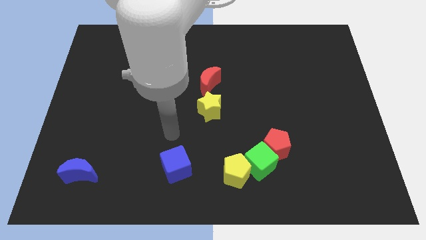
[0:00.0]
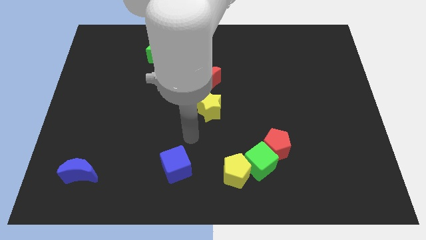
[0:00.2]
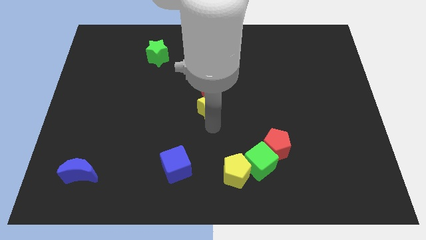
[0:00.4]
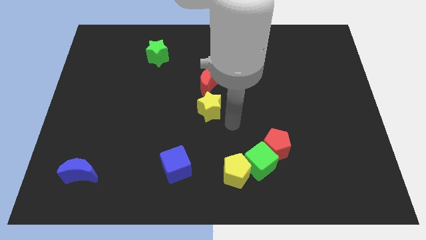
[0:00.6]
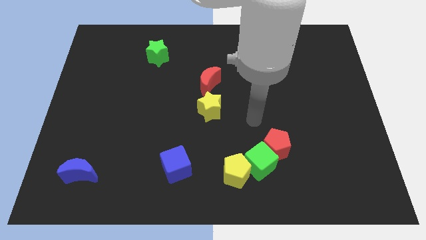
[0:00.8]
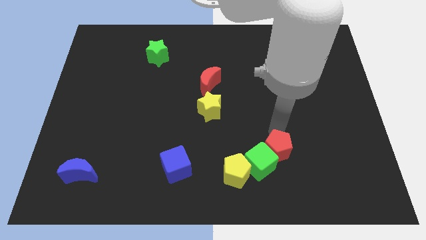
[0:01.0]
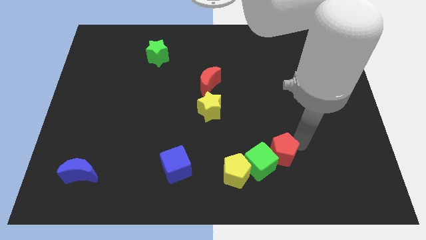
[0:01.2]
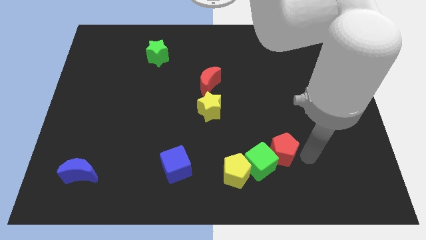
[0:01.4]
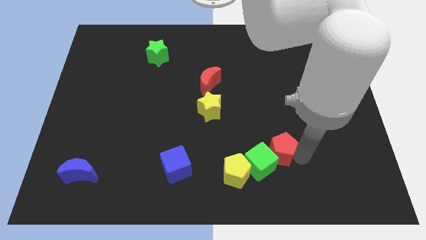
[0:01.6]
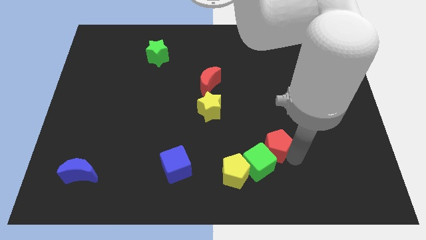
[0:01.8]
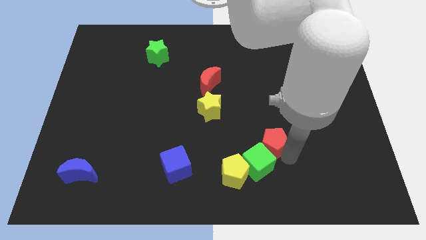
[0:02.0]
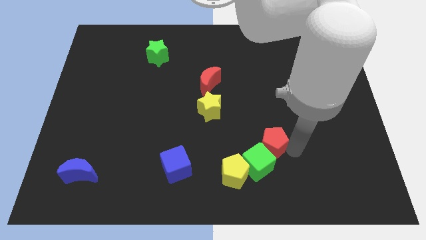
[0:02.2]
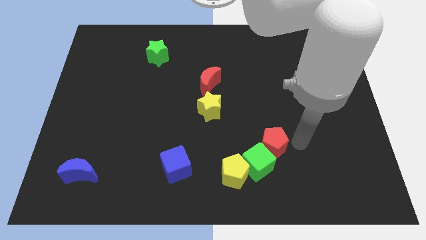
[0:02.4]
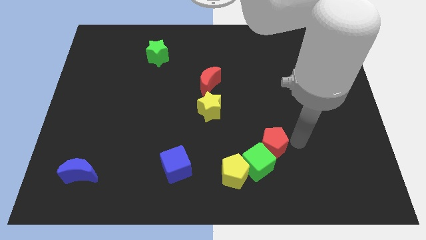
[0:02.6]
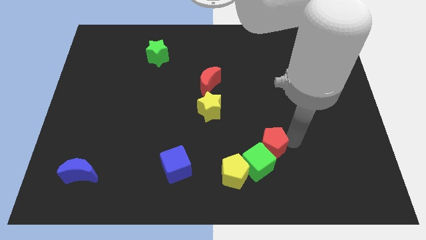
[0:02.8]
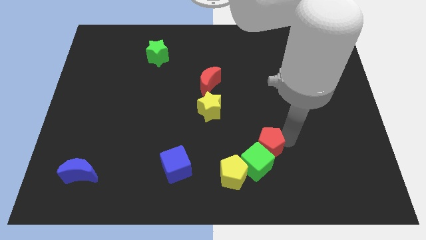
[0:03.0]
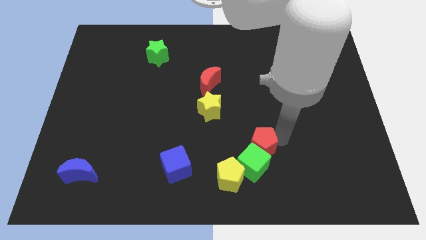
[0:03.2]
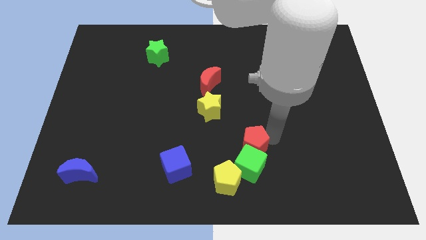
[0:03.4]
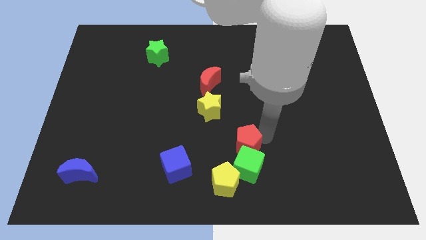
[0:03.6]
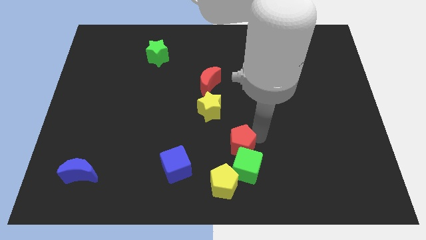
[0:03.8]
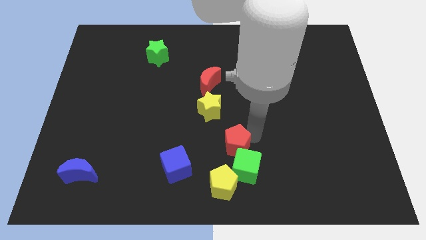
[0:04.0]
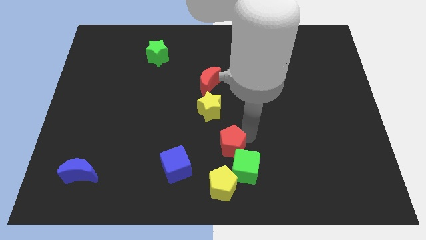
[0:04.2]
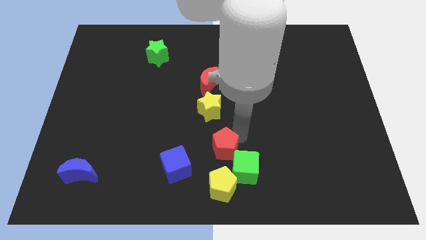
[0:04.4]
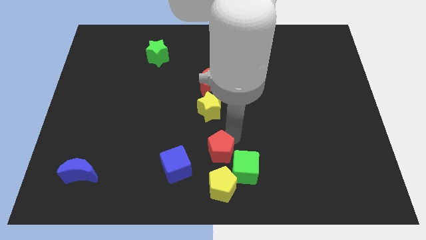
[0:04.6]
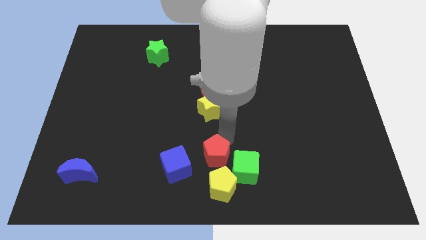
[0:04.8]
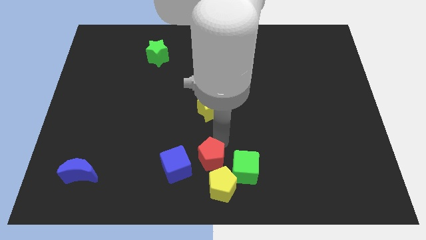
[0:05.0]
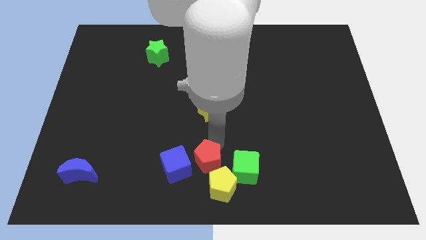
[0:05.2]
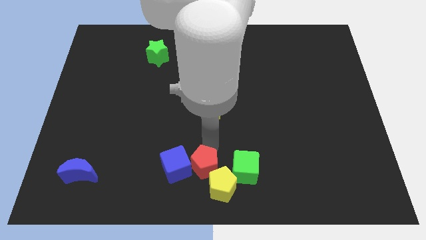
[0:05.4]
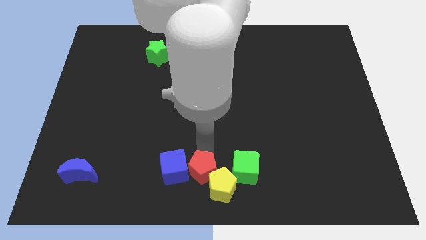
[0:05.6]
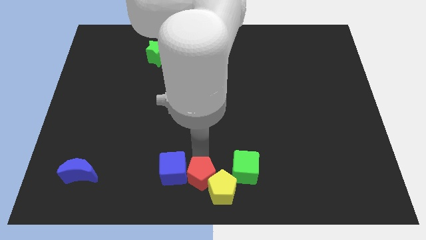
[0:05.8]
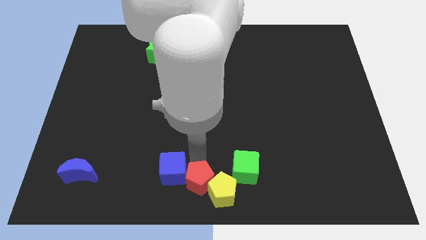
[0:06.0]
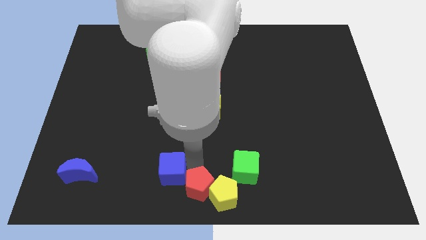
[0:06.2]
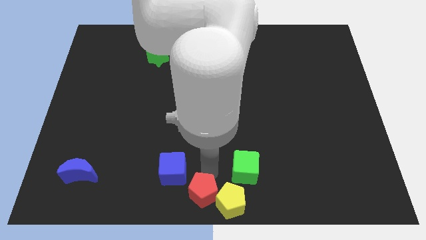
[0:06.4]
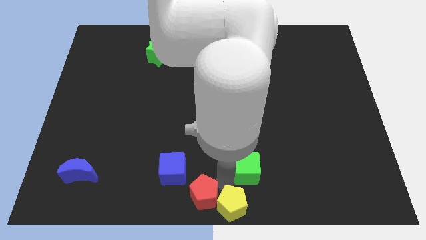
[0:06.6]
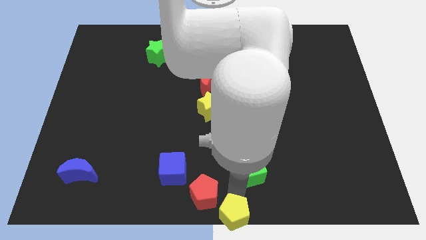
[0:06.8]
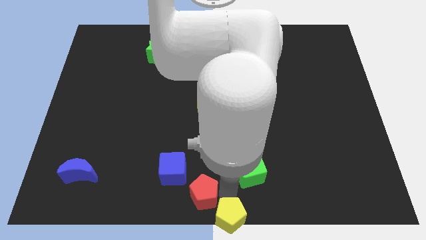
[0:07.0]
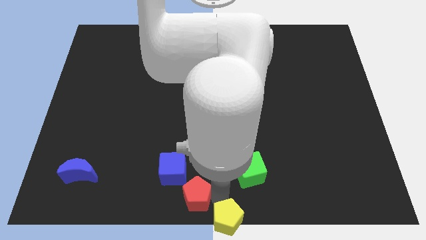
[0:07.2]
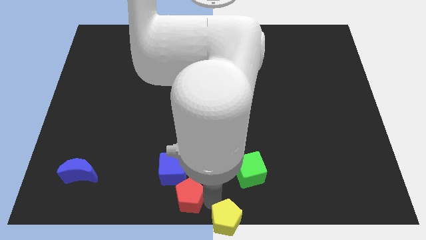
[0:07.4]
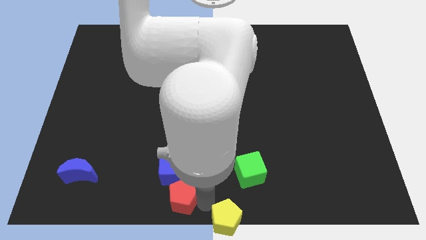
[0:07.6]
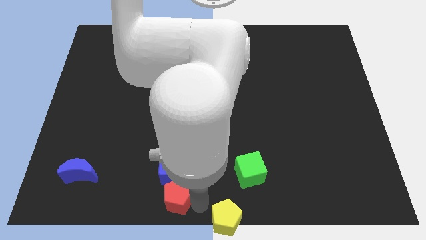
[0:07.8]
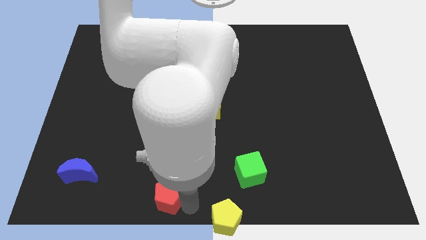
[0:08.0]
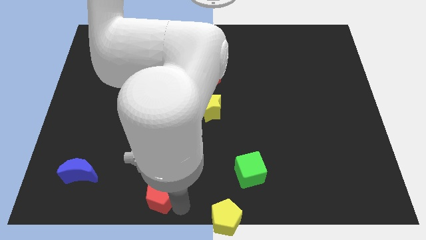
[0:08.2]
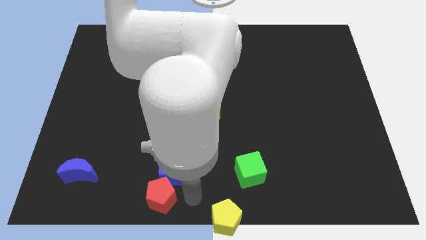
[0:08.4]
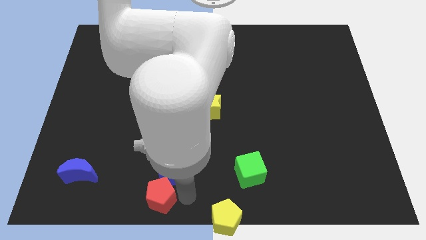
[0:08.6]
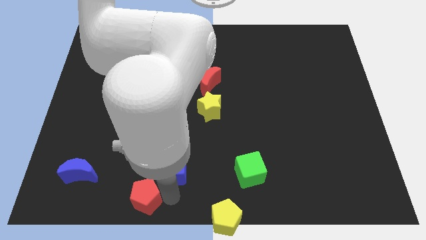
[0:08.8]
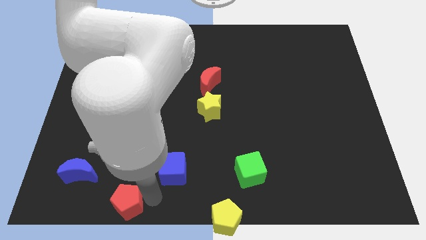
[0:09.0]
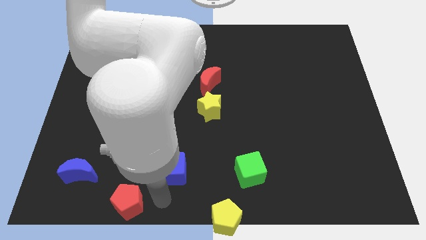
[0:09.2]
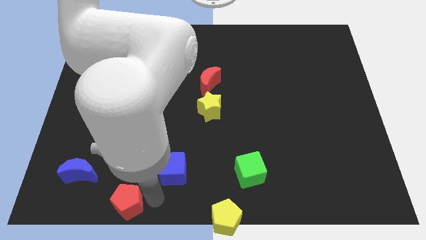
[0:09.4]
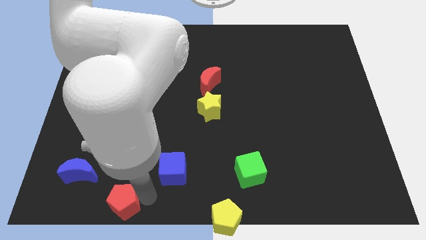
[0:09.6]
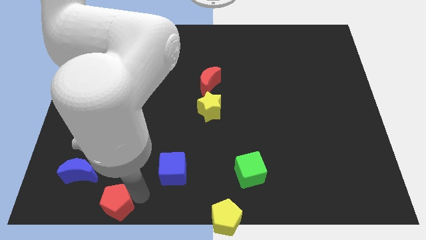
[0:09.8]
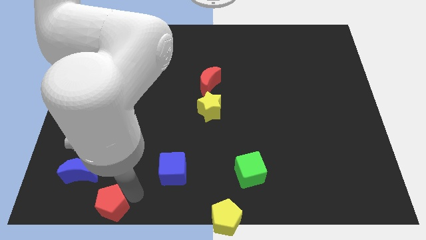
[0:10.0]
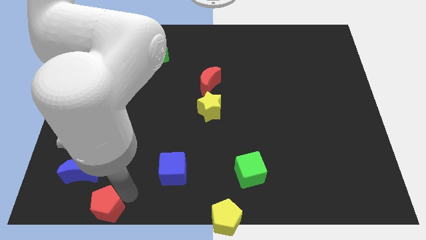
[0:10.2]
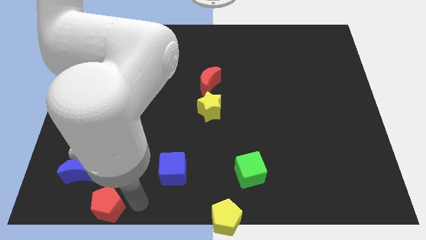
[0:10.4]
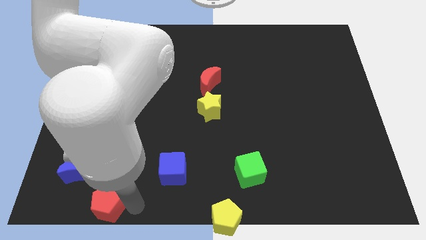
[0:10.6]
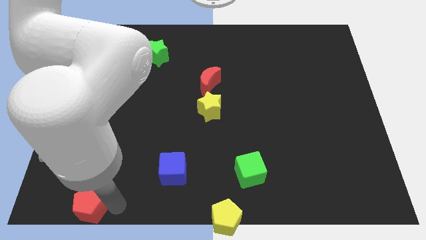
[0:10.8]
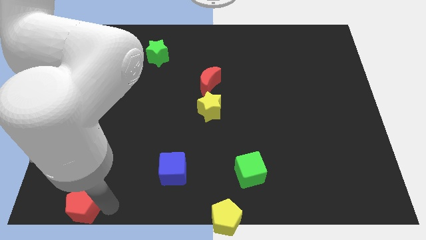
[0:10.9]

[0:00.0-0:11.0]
push the red pentagon to the bottom left

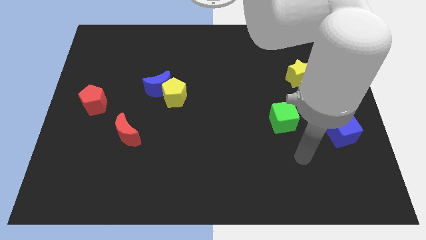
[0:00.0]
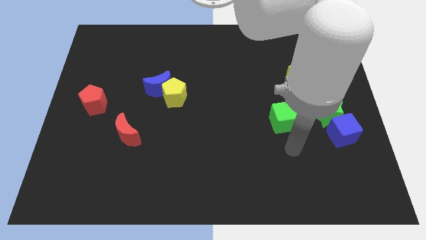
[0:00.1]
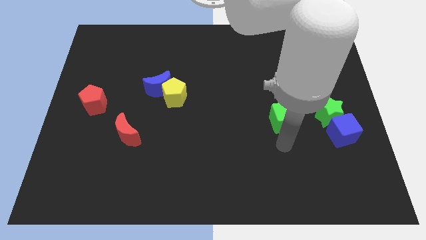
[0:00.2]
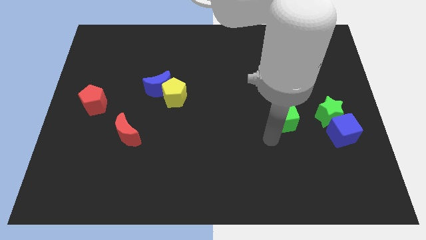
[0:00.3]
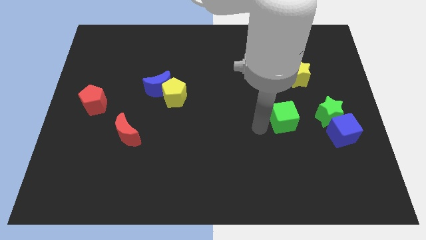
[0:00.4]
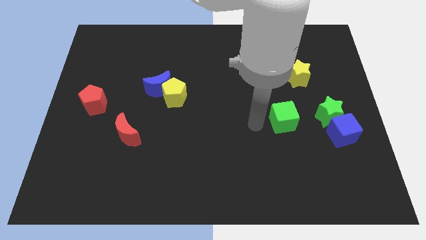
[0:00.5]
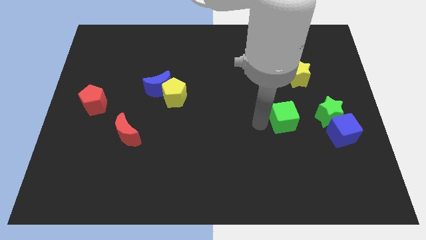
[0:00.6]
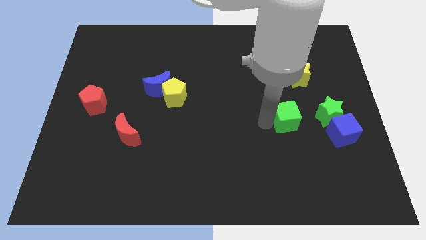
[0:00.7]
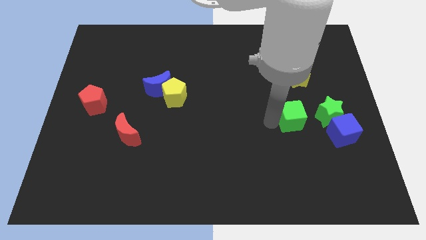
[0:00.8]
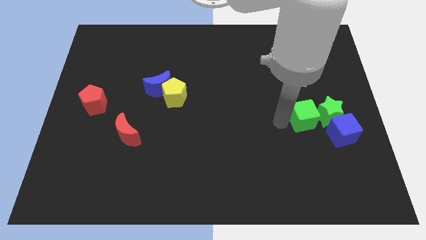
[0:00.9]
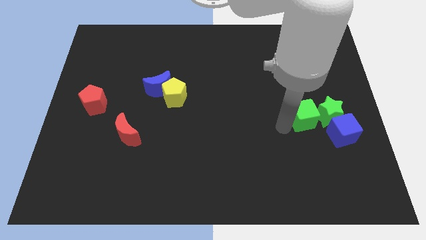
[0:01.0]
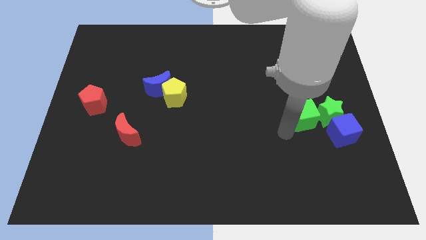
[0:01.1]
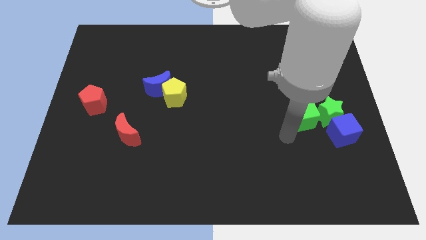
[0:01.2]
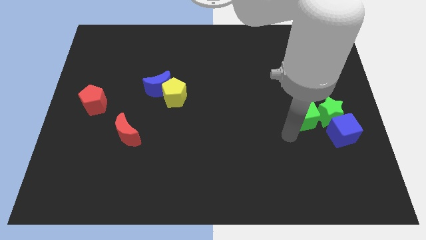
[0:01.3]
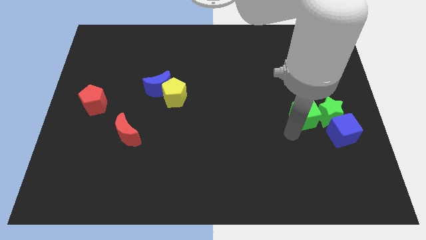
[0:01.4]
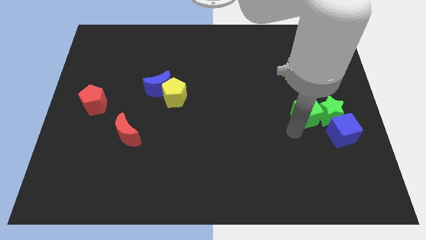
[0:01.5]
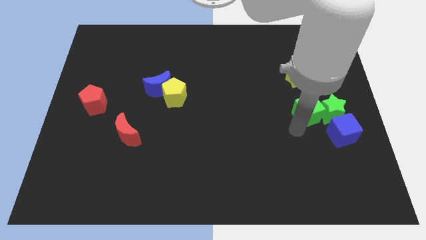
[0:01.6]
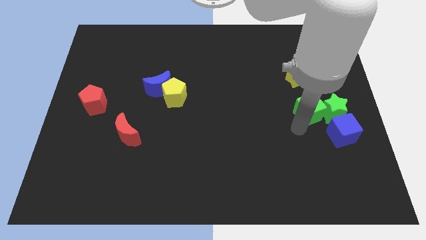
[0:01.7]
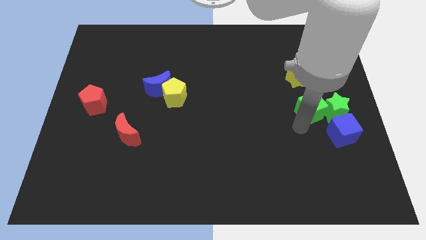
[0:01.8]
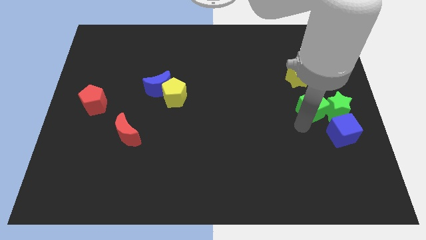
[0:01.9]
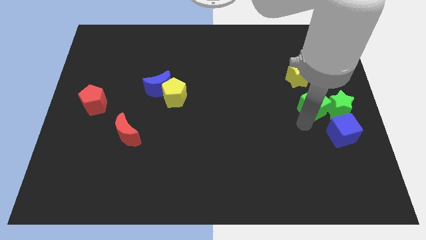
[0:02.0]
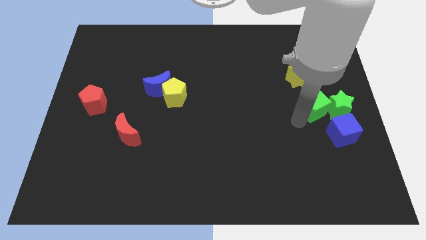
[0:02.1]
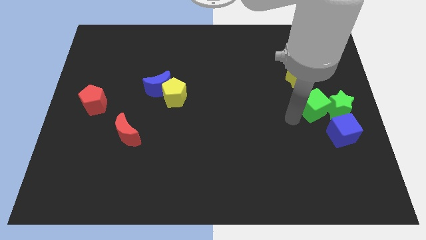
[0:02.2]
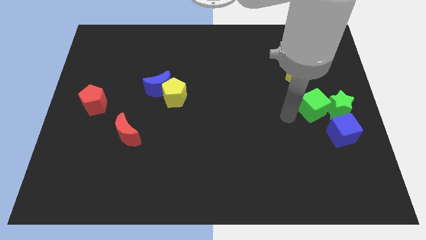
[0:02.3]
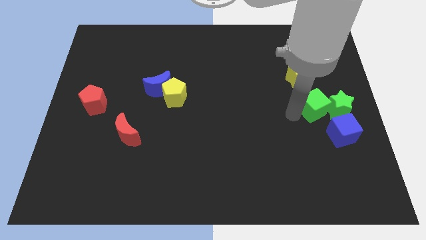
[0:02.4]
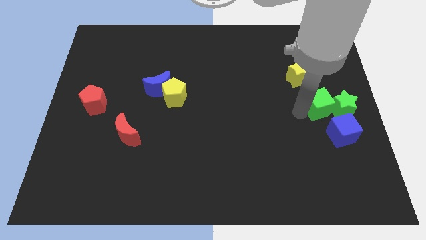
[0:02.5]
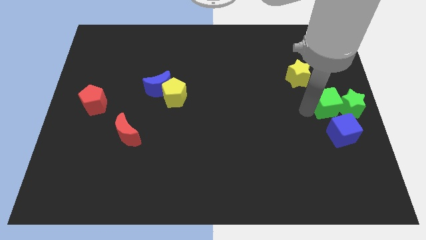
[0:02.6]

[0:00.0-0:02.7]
put the green cube to the right side of the board
